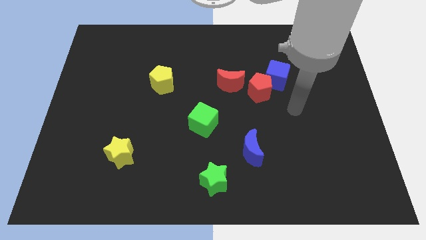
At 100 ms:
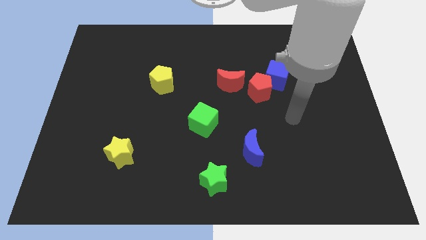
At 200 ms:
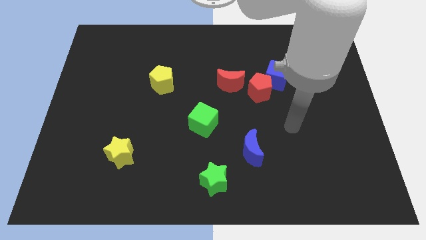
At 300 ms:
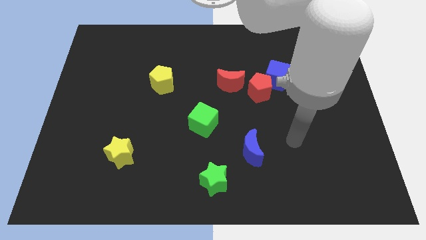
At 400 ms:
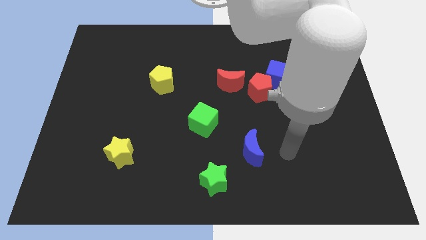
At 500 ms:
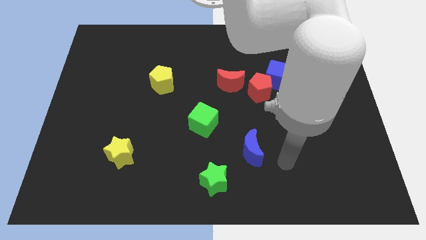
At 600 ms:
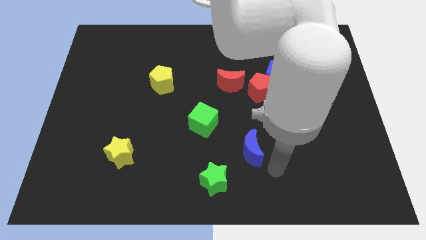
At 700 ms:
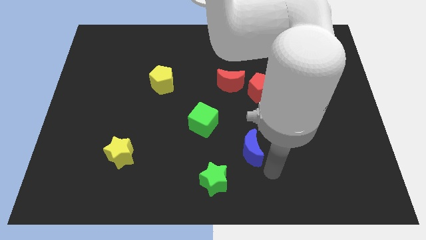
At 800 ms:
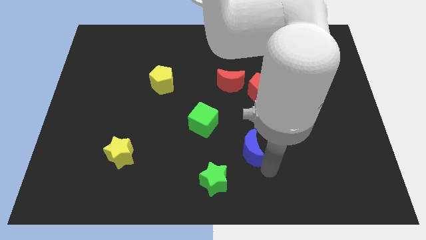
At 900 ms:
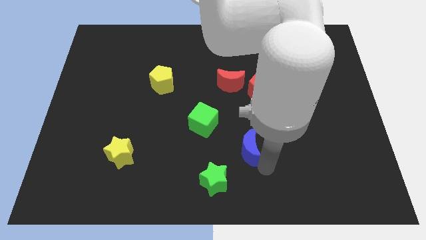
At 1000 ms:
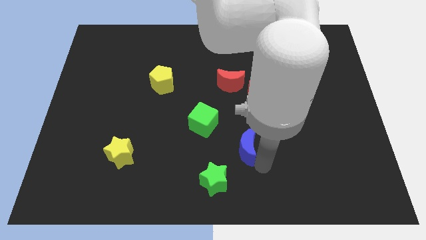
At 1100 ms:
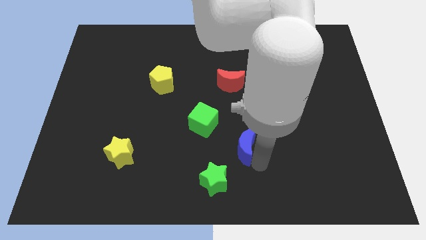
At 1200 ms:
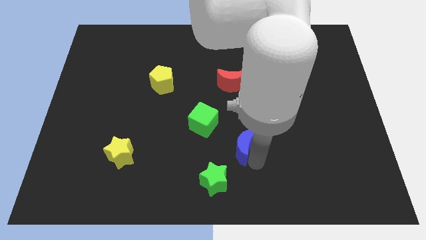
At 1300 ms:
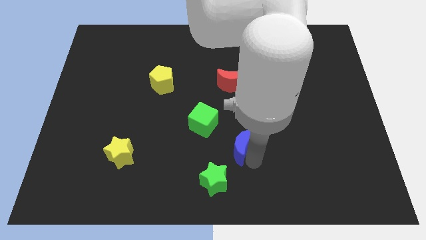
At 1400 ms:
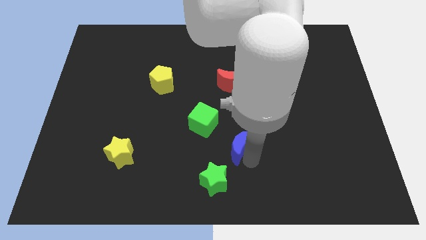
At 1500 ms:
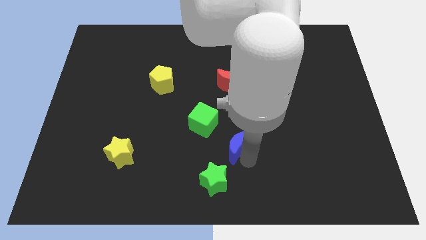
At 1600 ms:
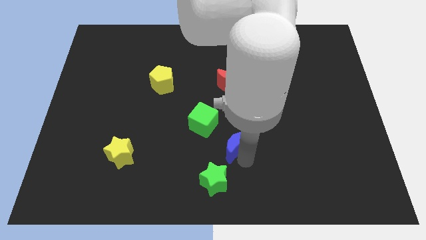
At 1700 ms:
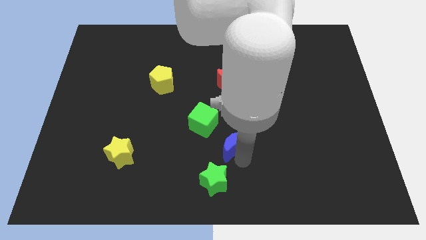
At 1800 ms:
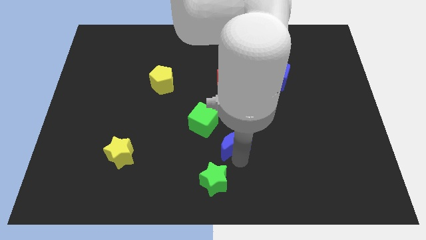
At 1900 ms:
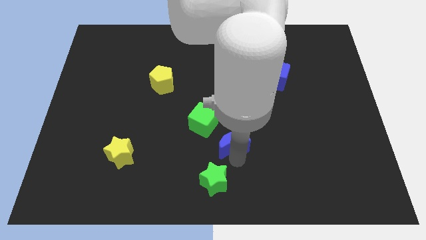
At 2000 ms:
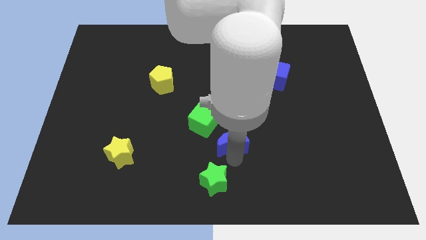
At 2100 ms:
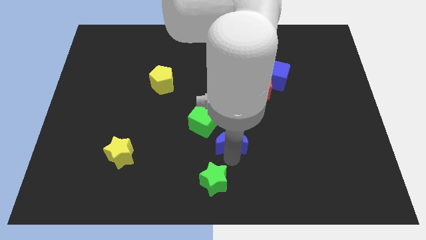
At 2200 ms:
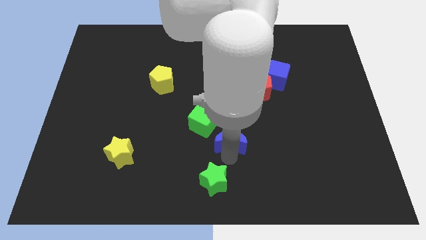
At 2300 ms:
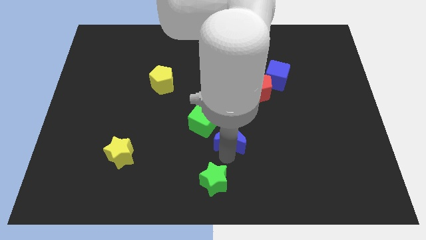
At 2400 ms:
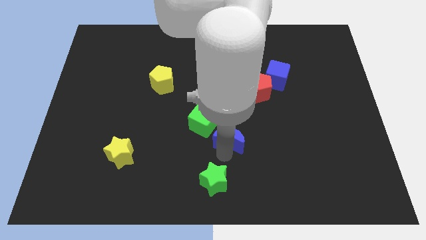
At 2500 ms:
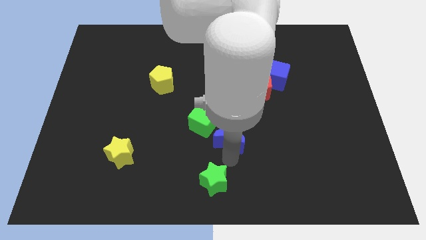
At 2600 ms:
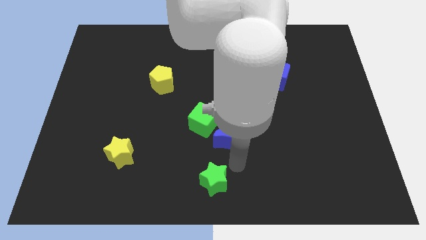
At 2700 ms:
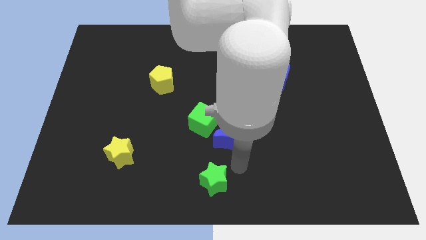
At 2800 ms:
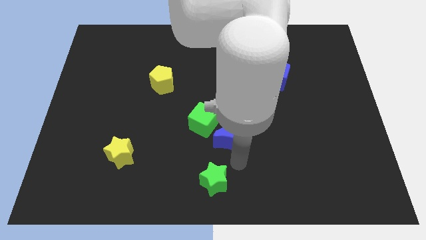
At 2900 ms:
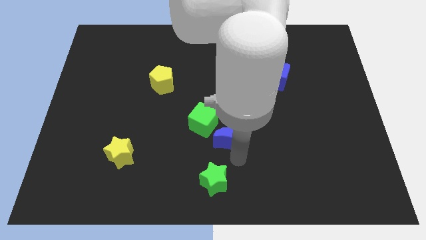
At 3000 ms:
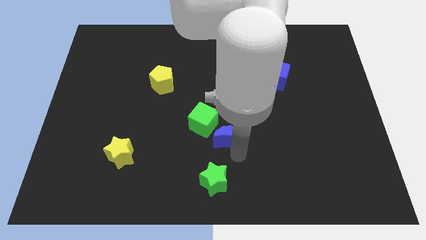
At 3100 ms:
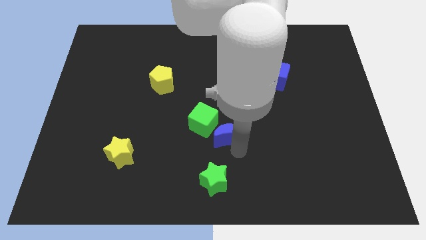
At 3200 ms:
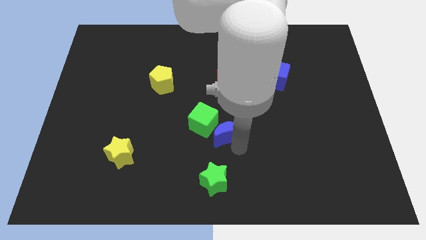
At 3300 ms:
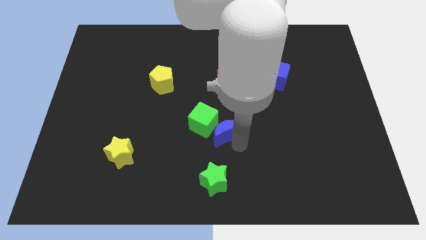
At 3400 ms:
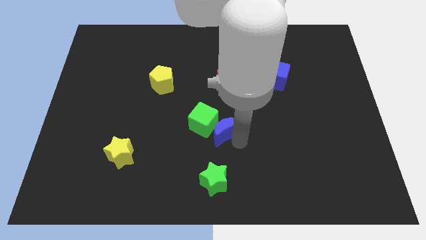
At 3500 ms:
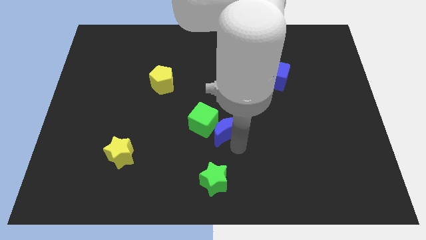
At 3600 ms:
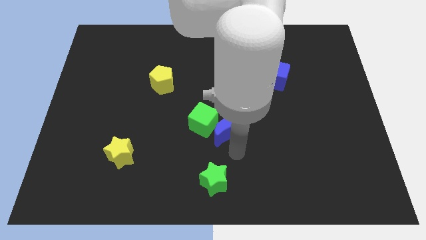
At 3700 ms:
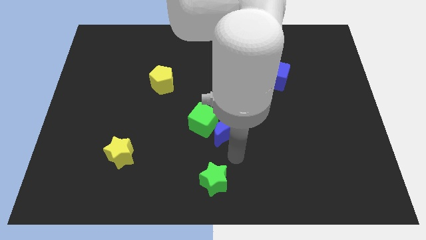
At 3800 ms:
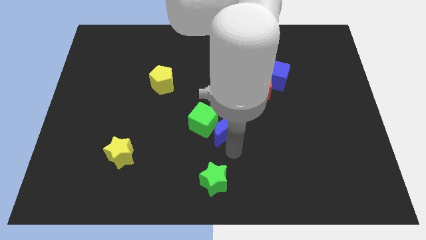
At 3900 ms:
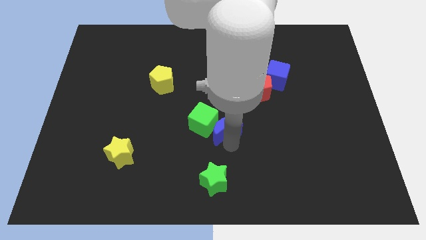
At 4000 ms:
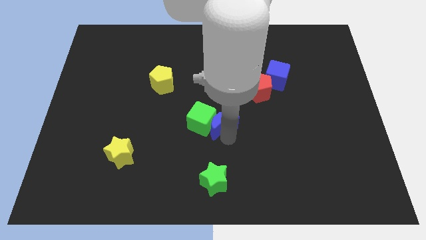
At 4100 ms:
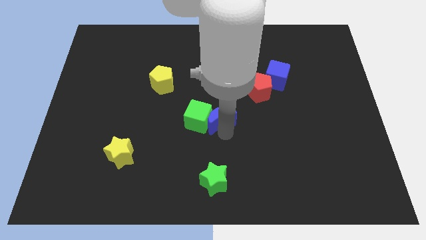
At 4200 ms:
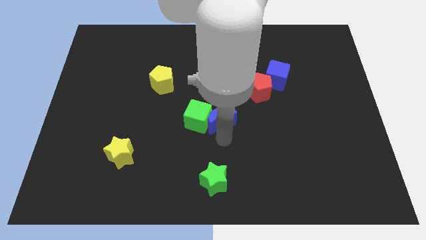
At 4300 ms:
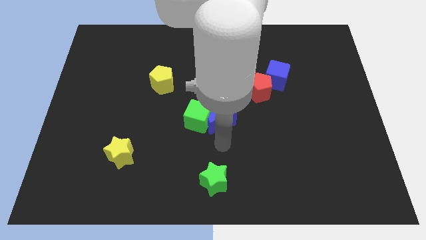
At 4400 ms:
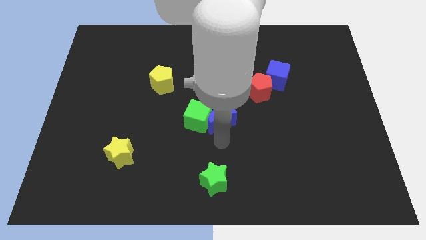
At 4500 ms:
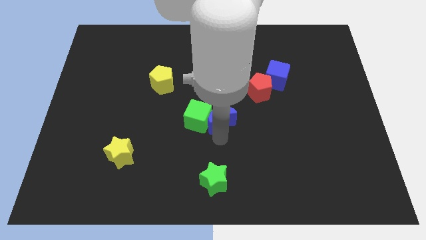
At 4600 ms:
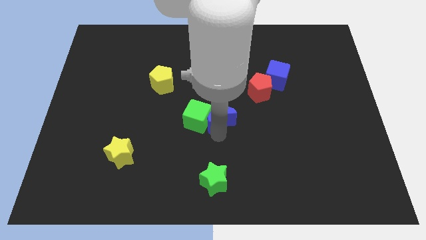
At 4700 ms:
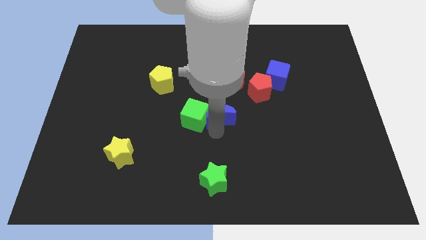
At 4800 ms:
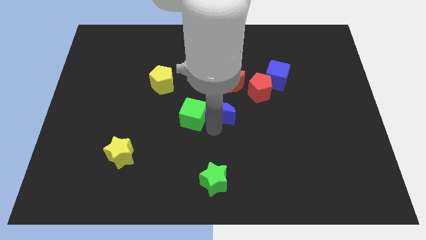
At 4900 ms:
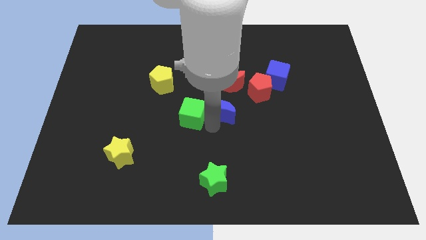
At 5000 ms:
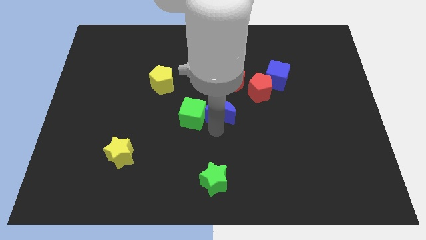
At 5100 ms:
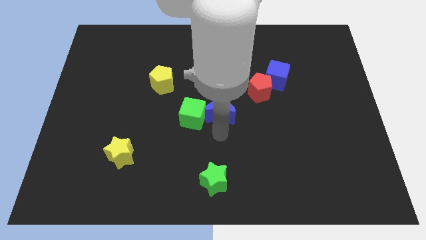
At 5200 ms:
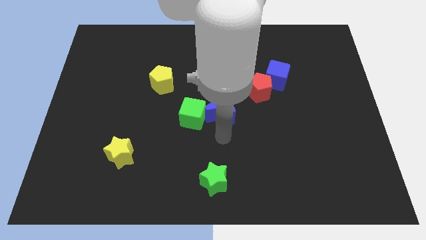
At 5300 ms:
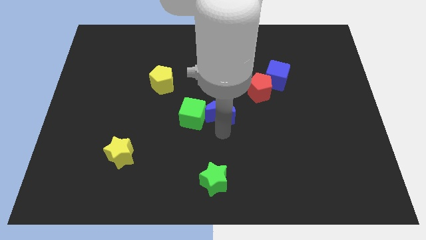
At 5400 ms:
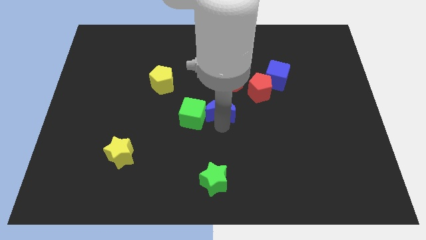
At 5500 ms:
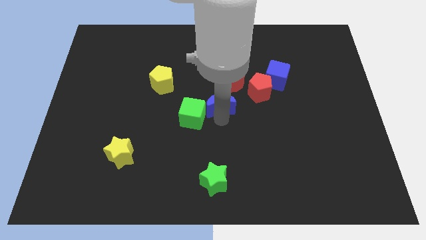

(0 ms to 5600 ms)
push the blue moon to the left side of the red pentagon

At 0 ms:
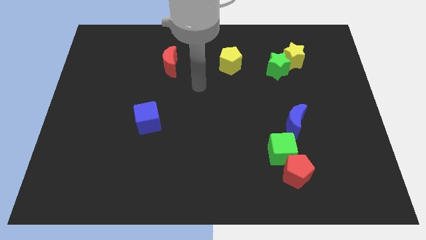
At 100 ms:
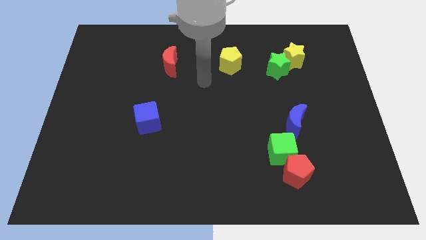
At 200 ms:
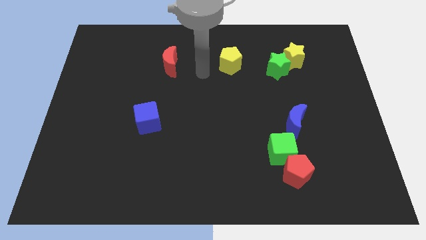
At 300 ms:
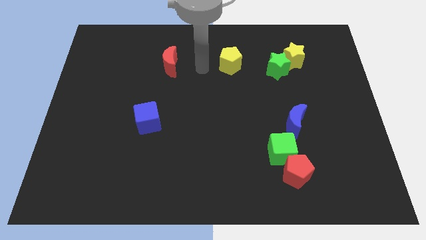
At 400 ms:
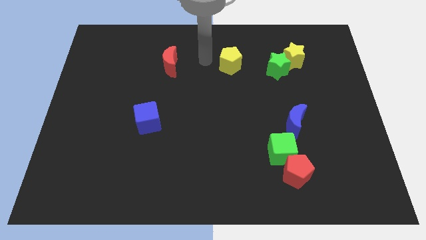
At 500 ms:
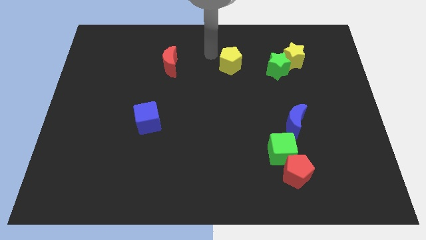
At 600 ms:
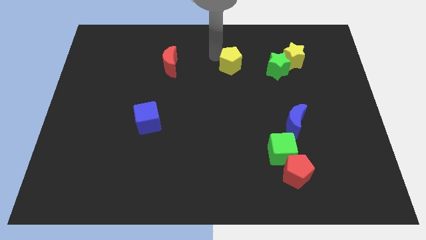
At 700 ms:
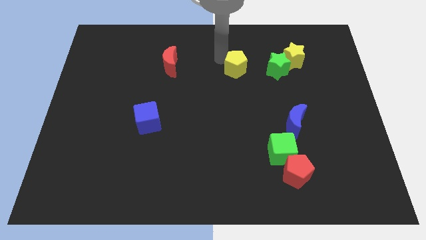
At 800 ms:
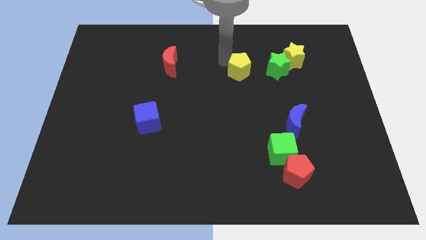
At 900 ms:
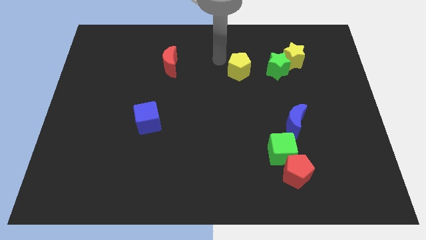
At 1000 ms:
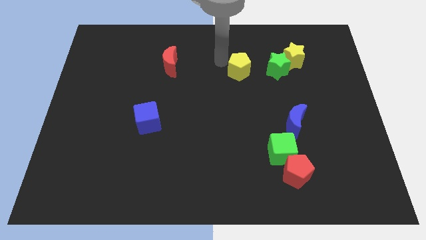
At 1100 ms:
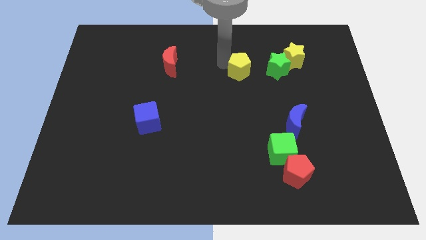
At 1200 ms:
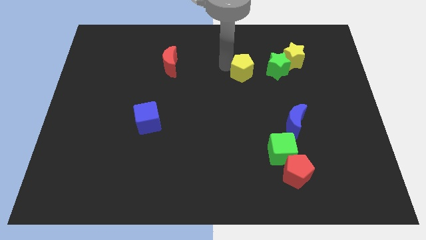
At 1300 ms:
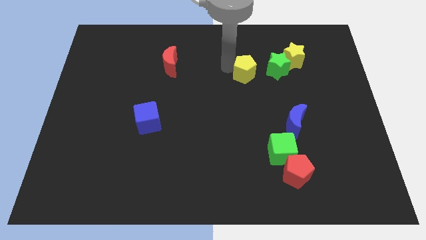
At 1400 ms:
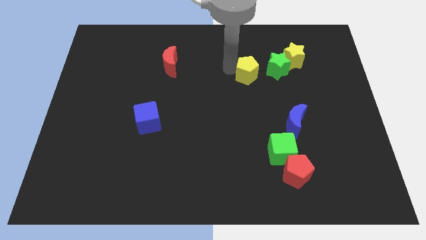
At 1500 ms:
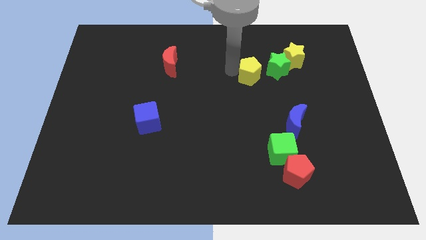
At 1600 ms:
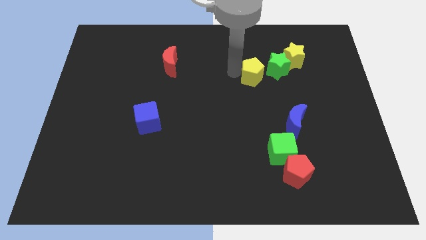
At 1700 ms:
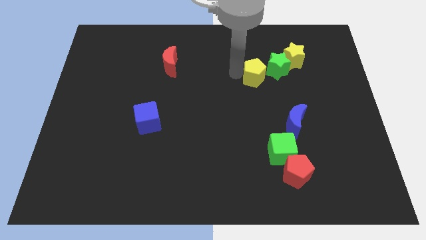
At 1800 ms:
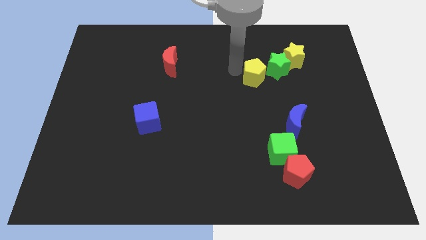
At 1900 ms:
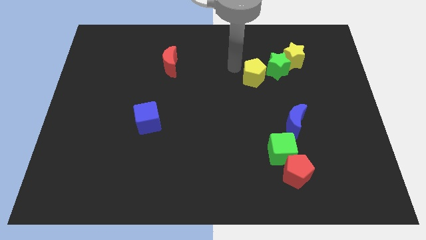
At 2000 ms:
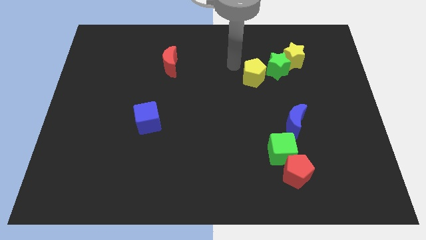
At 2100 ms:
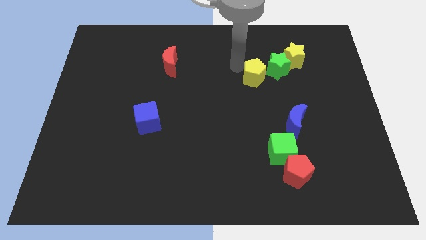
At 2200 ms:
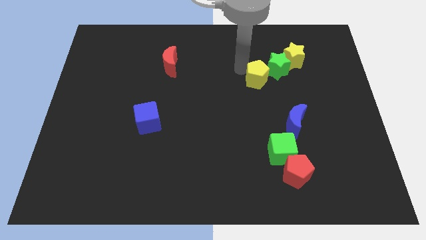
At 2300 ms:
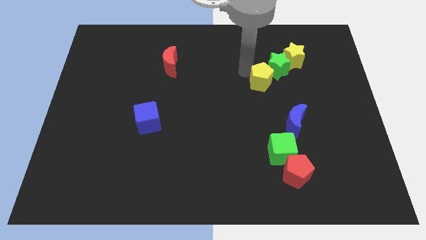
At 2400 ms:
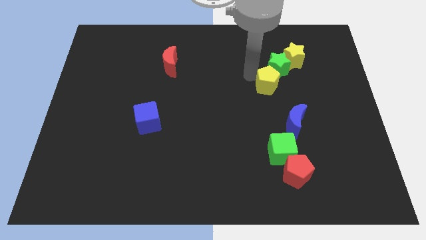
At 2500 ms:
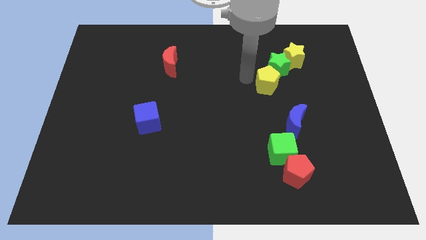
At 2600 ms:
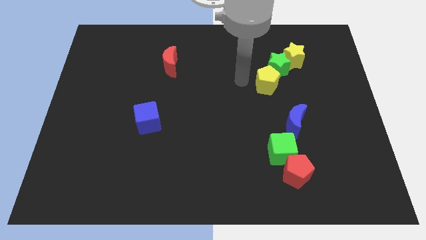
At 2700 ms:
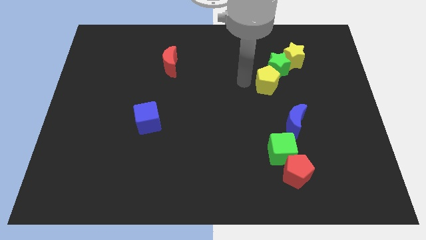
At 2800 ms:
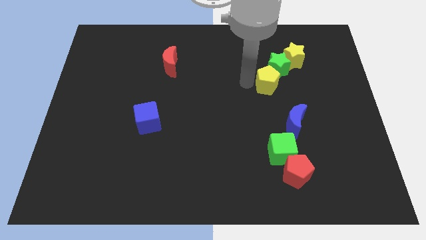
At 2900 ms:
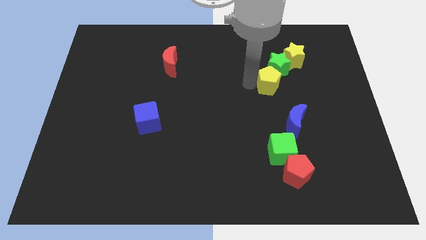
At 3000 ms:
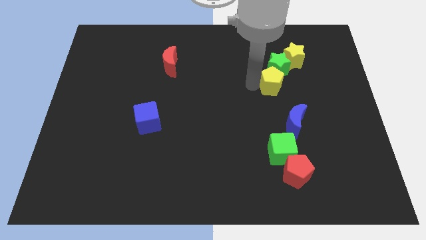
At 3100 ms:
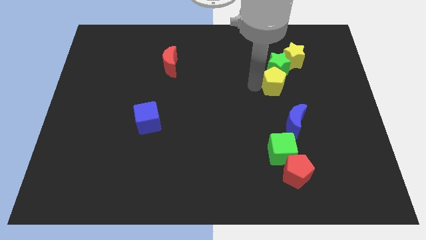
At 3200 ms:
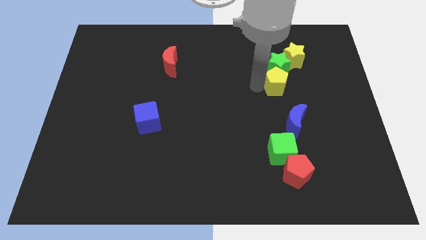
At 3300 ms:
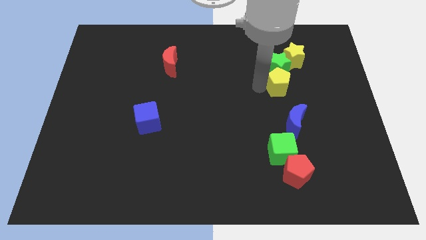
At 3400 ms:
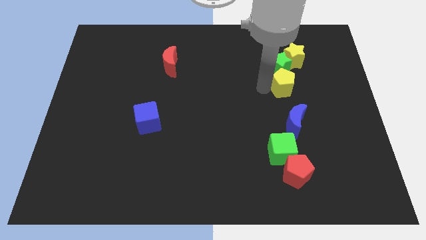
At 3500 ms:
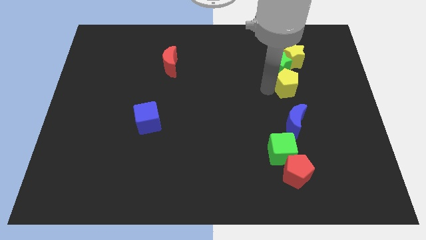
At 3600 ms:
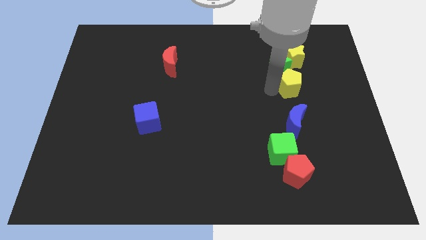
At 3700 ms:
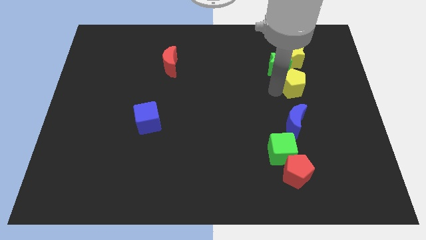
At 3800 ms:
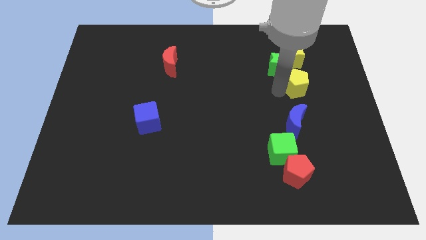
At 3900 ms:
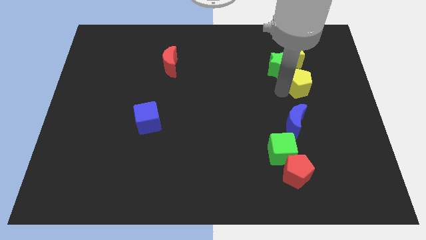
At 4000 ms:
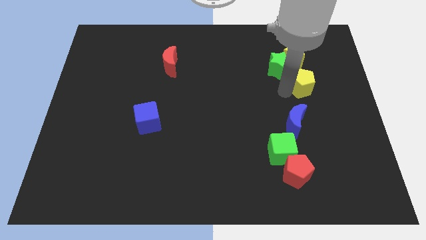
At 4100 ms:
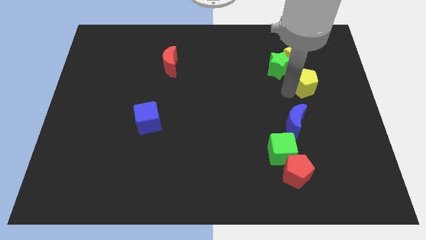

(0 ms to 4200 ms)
put the yellow pentagon to the bottom right of the yellow star
